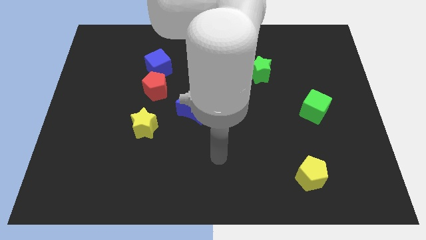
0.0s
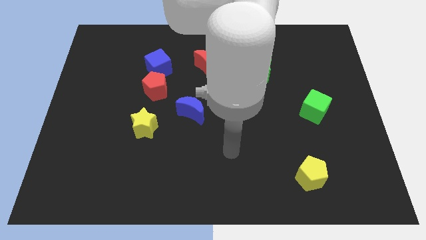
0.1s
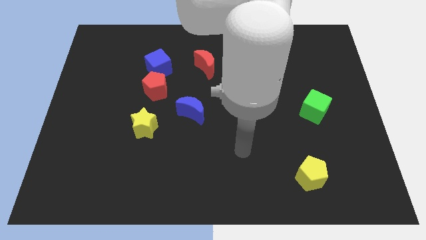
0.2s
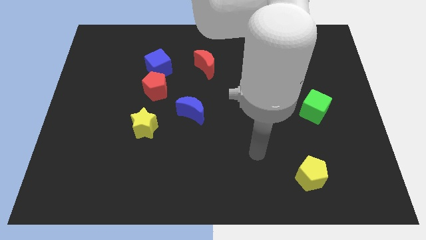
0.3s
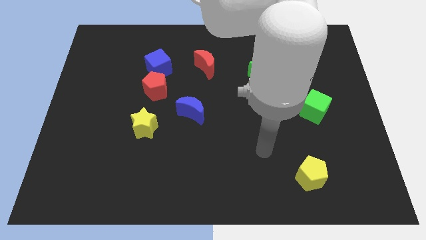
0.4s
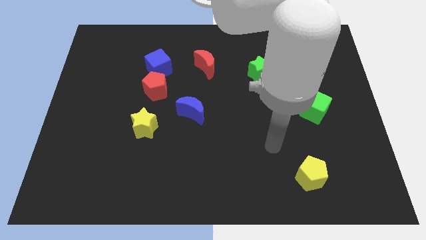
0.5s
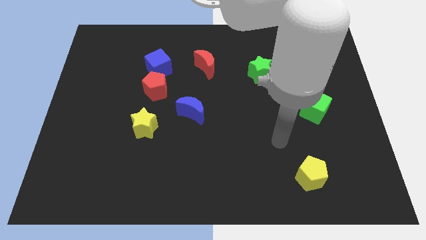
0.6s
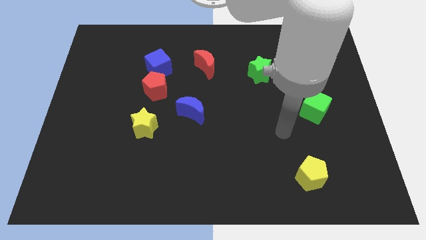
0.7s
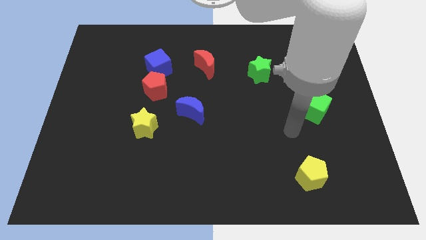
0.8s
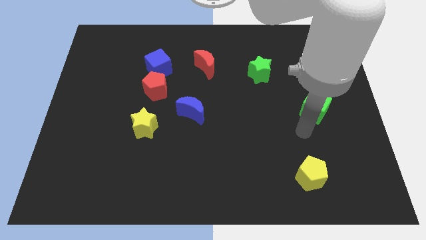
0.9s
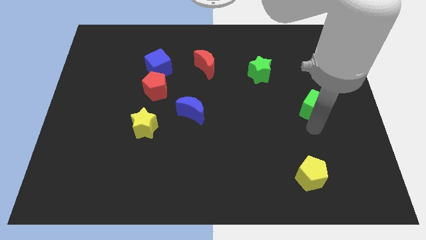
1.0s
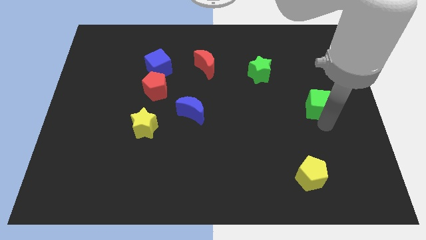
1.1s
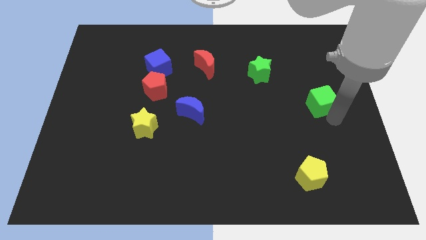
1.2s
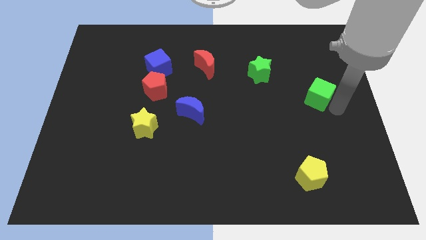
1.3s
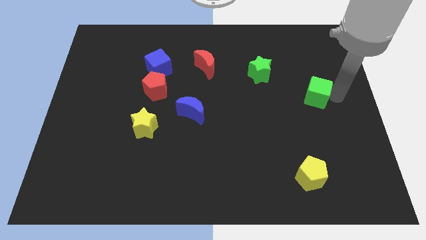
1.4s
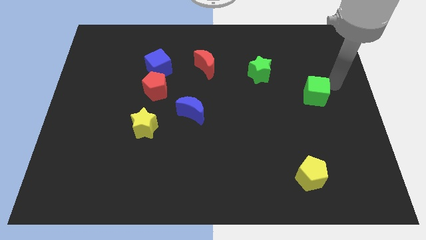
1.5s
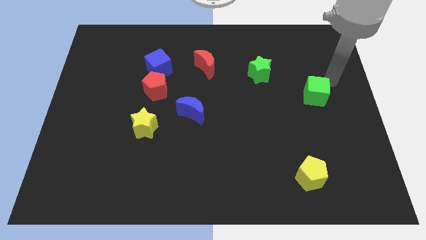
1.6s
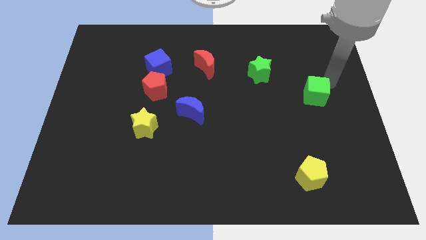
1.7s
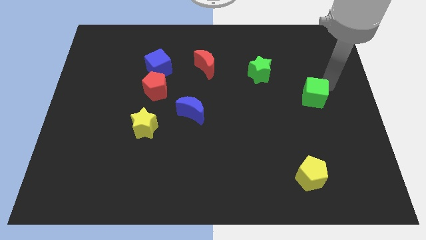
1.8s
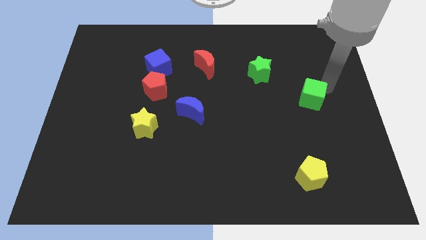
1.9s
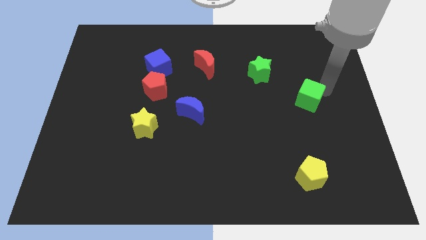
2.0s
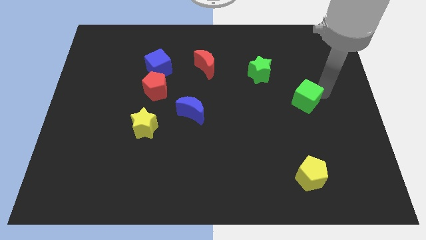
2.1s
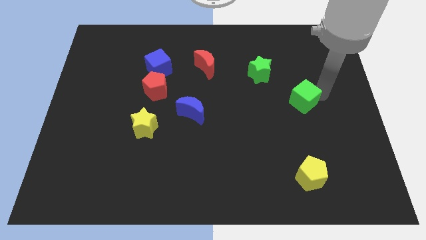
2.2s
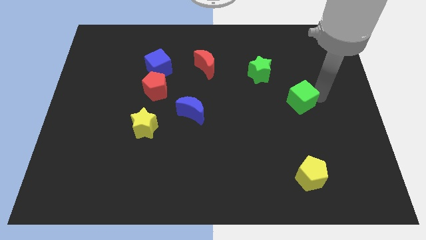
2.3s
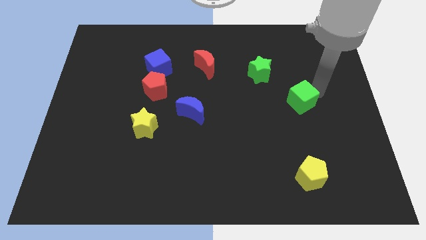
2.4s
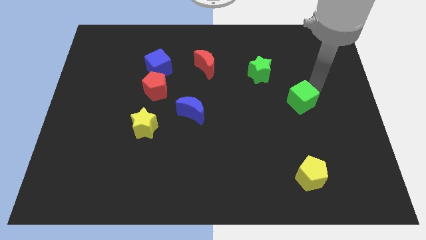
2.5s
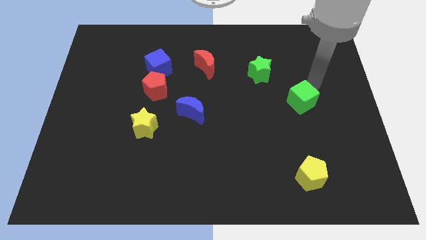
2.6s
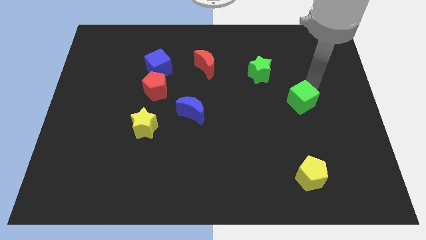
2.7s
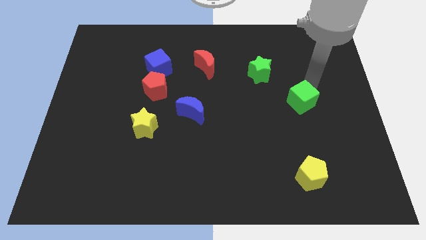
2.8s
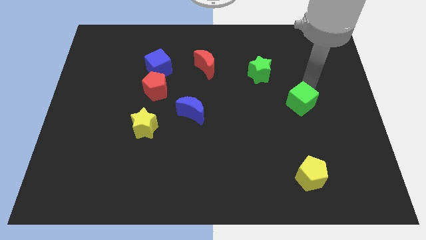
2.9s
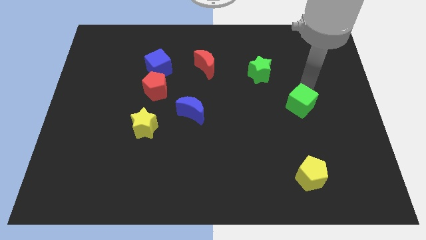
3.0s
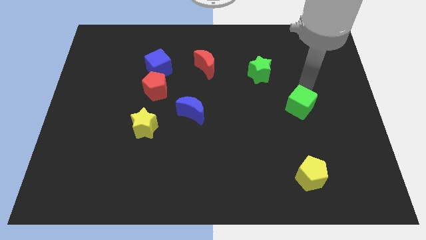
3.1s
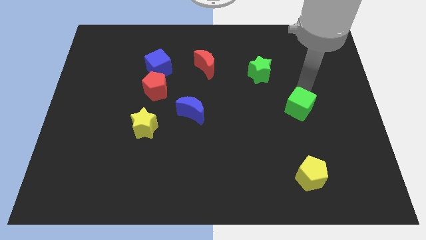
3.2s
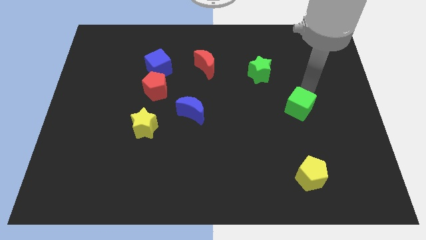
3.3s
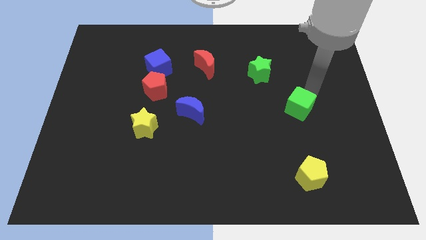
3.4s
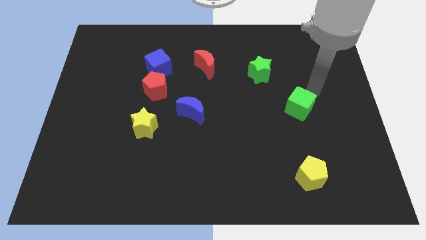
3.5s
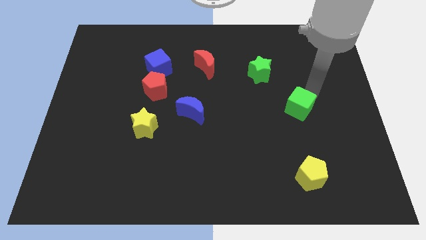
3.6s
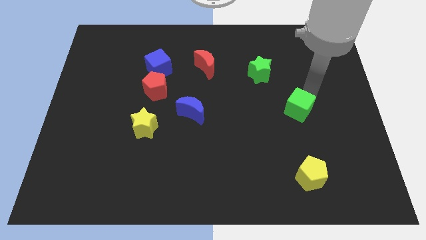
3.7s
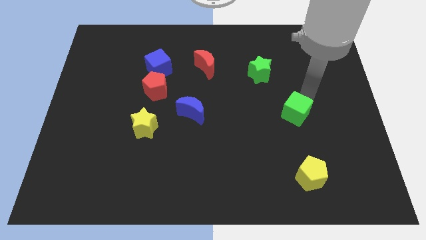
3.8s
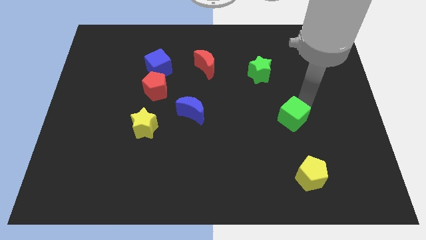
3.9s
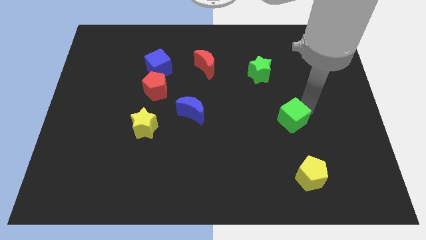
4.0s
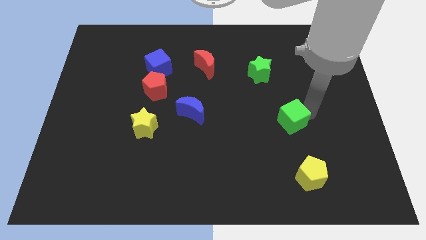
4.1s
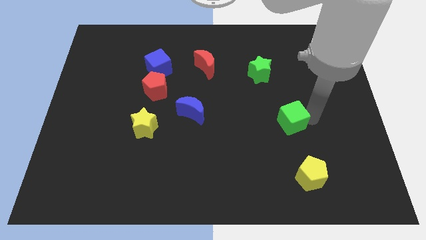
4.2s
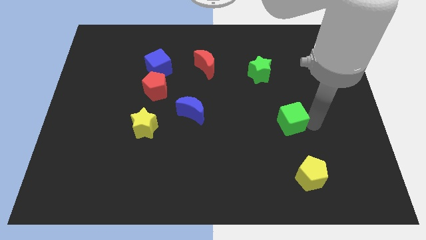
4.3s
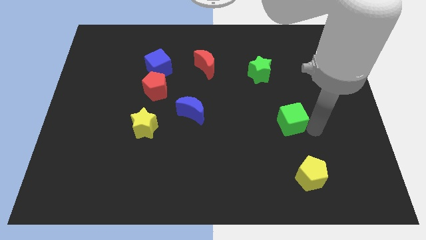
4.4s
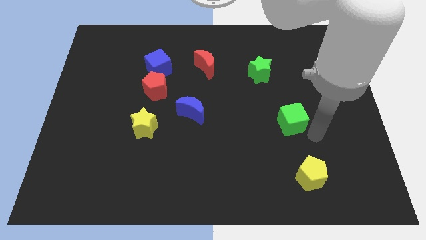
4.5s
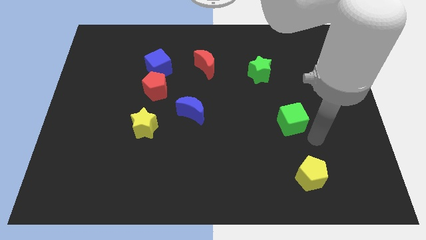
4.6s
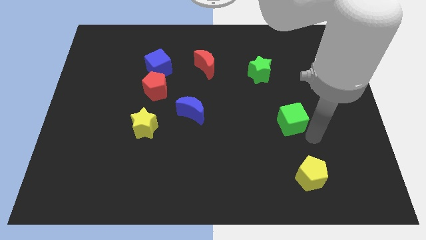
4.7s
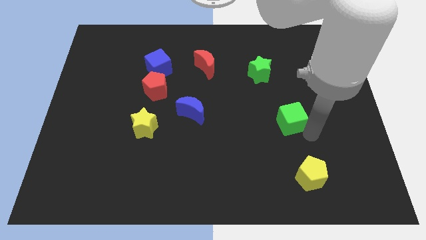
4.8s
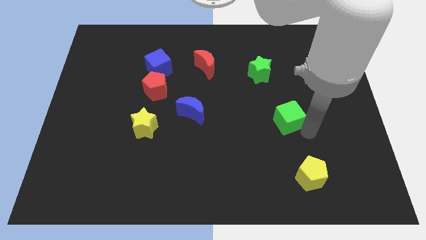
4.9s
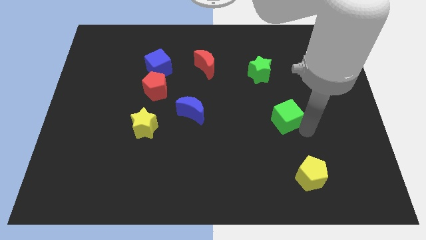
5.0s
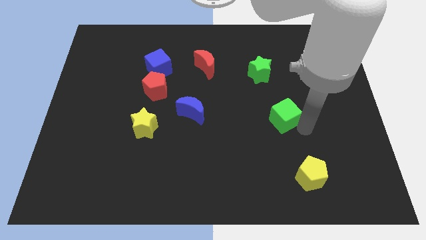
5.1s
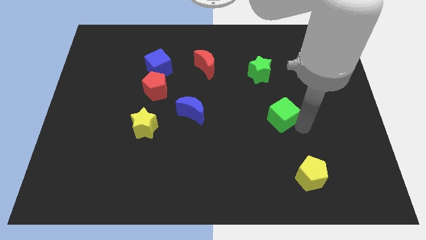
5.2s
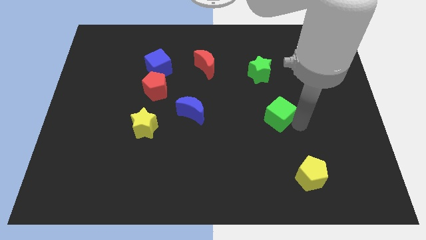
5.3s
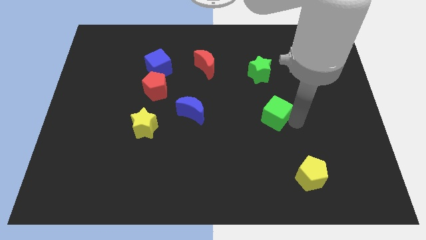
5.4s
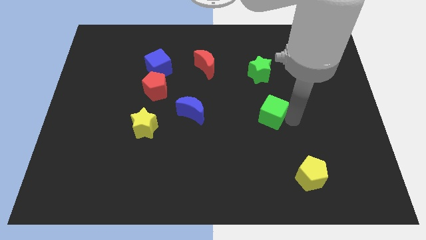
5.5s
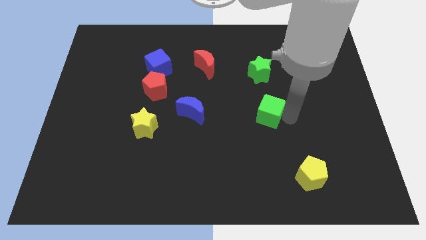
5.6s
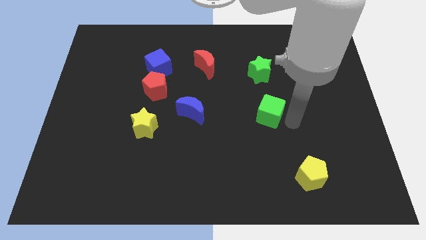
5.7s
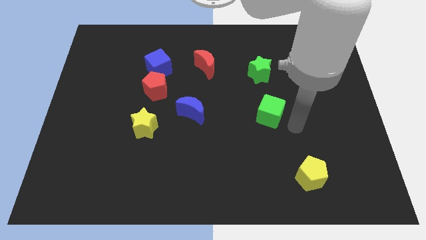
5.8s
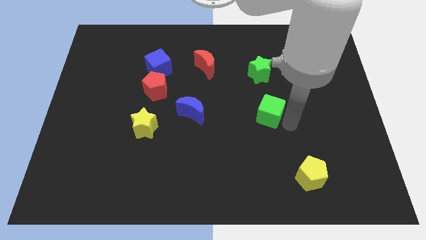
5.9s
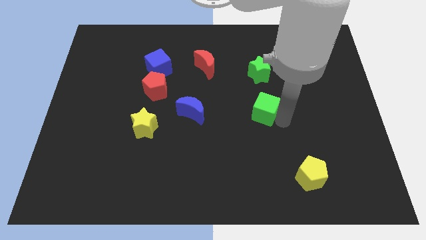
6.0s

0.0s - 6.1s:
put the green cube to the middle

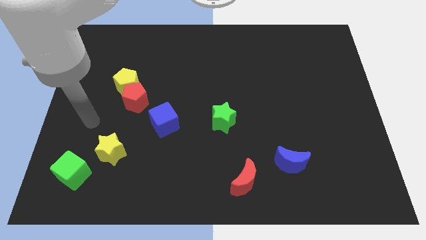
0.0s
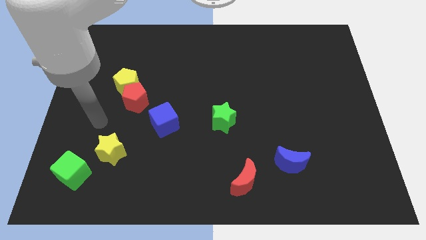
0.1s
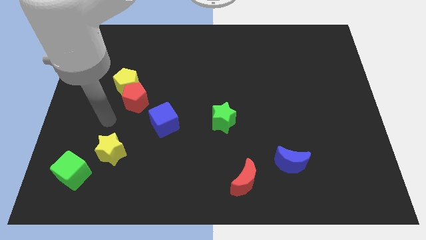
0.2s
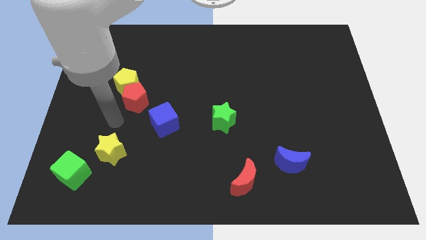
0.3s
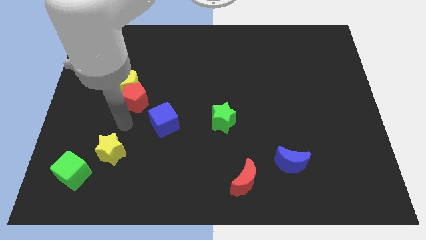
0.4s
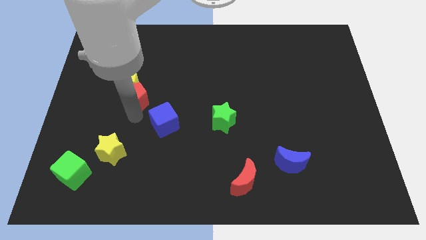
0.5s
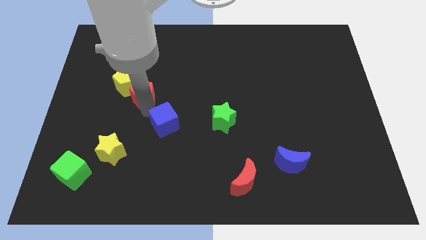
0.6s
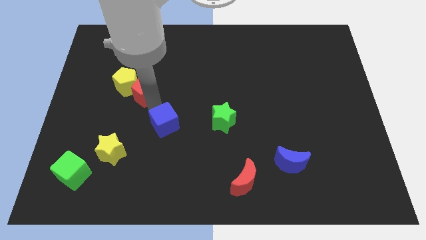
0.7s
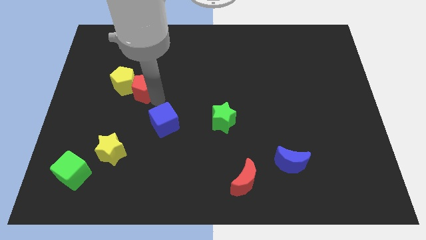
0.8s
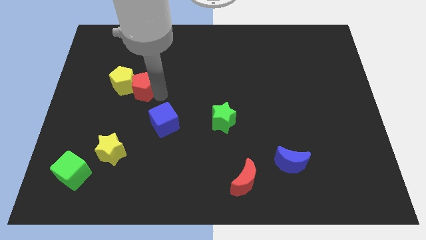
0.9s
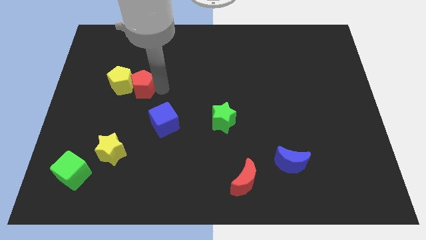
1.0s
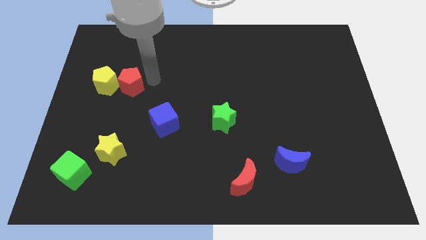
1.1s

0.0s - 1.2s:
push the yellow pentagon to the left side

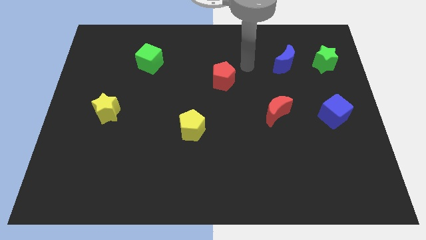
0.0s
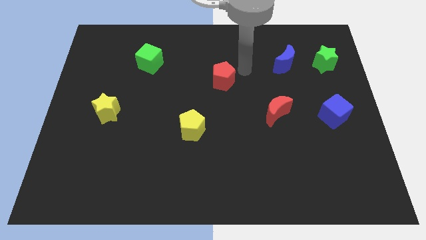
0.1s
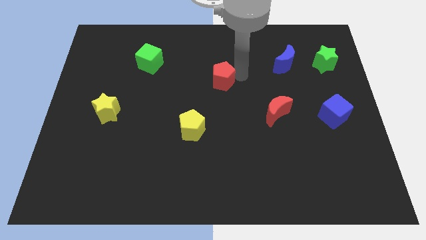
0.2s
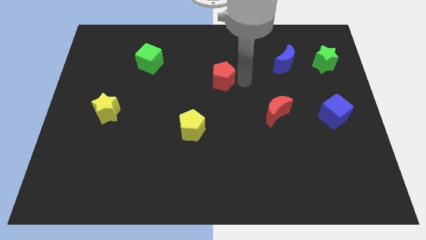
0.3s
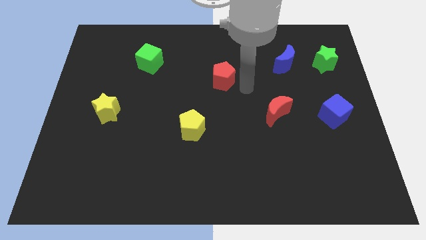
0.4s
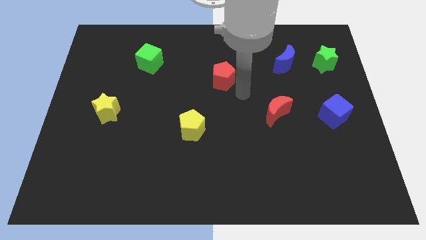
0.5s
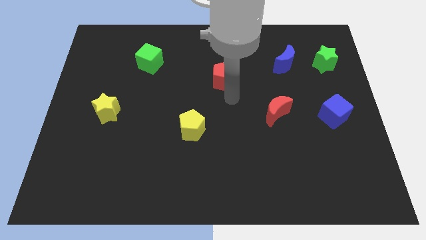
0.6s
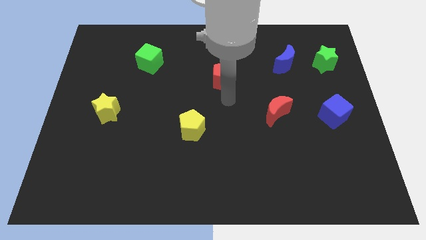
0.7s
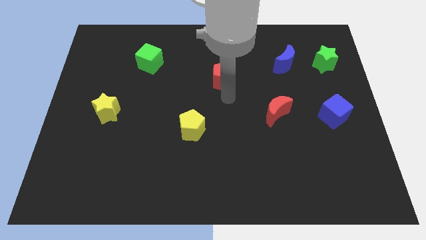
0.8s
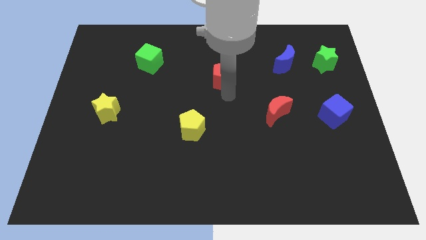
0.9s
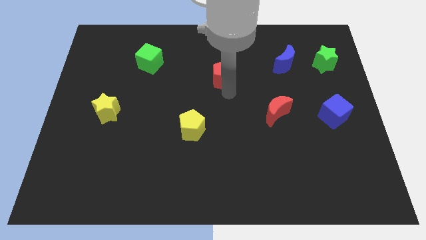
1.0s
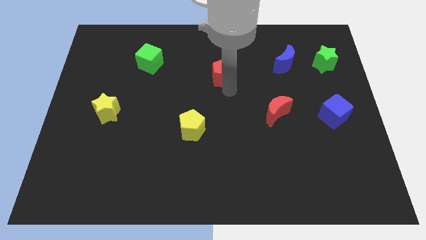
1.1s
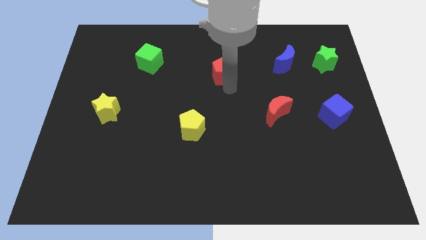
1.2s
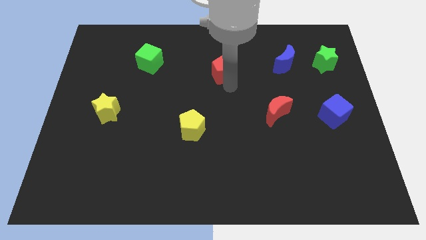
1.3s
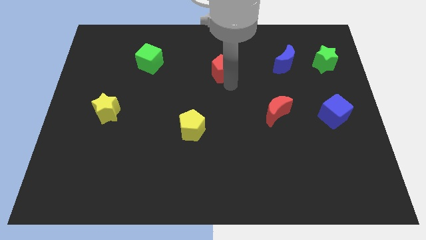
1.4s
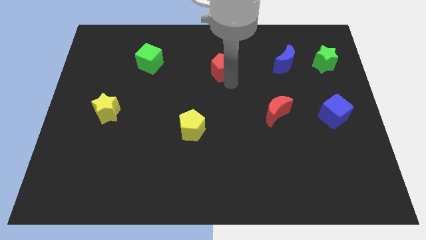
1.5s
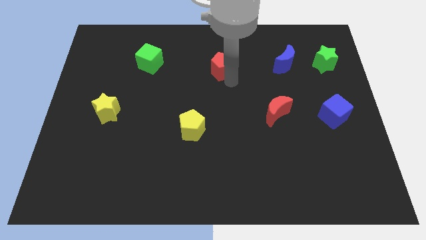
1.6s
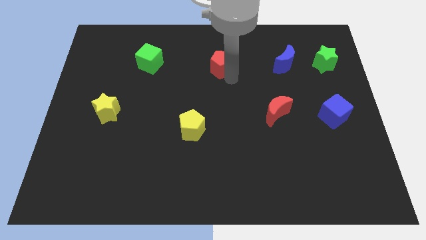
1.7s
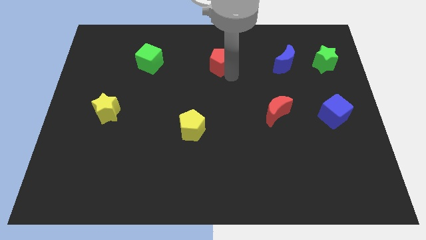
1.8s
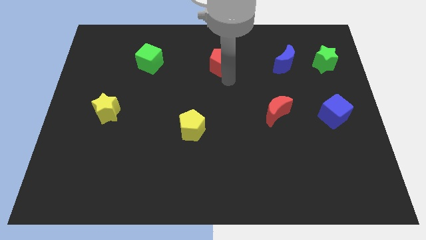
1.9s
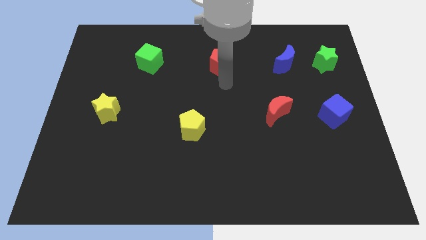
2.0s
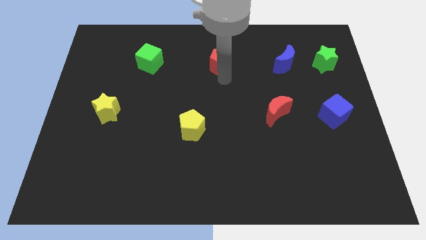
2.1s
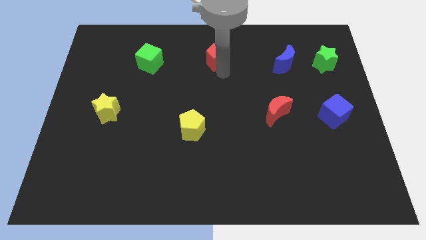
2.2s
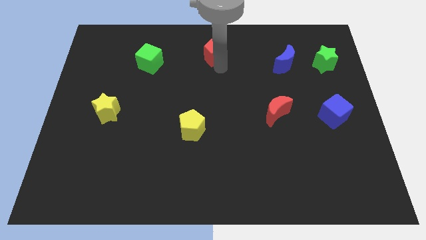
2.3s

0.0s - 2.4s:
put the red pentagon to the top
